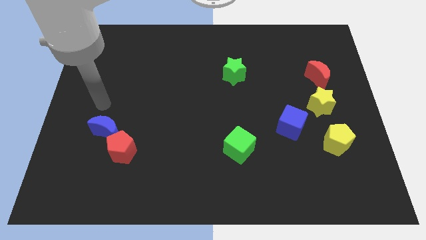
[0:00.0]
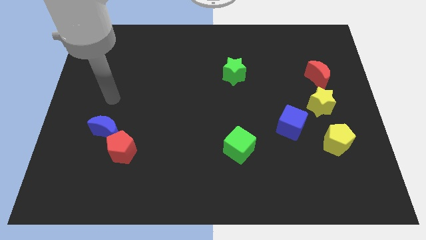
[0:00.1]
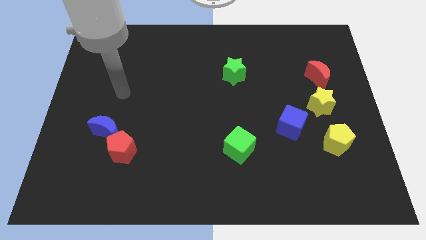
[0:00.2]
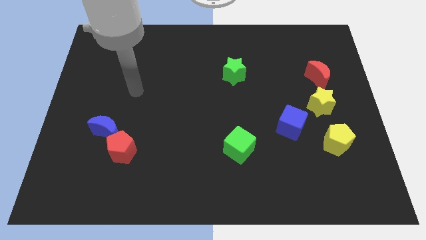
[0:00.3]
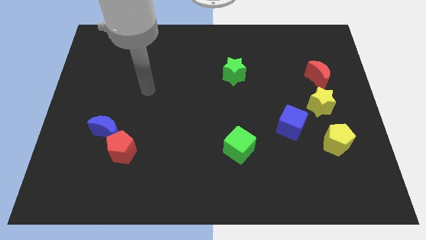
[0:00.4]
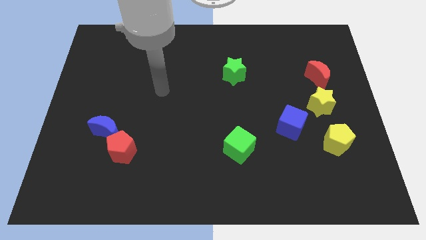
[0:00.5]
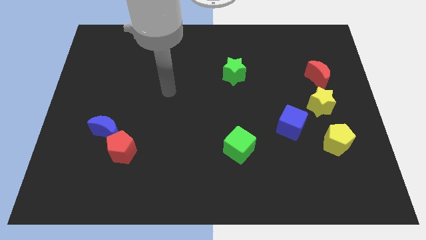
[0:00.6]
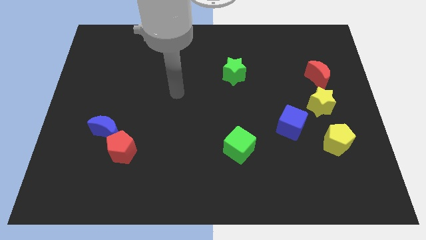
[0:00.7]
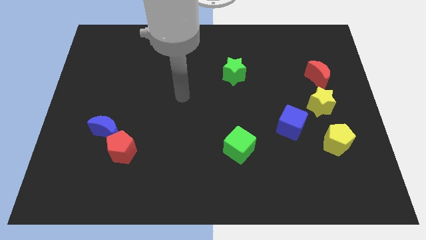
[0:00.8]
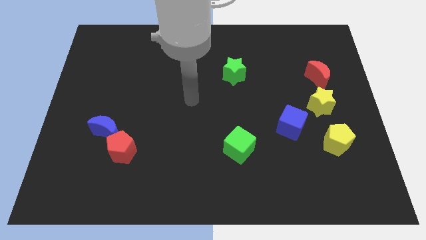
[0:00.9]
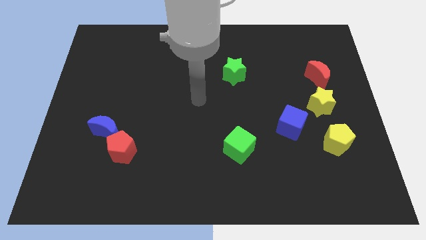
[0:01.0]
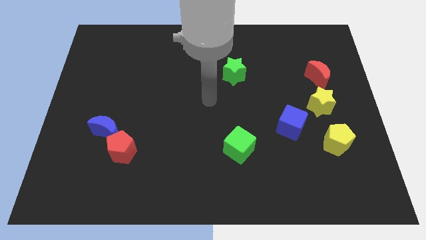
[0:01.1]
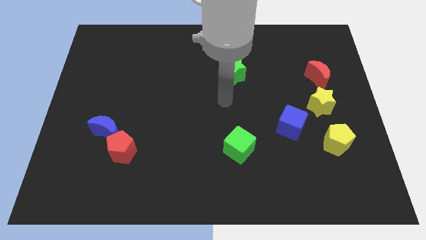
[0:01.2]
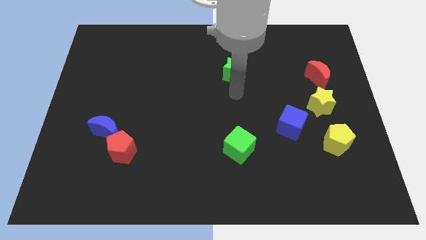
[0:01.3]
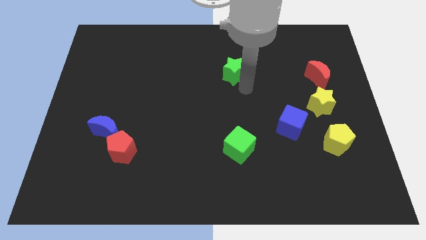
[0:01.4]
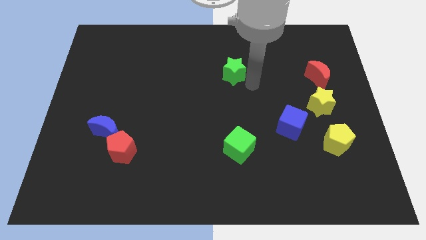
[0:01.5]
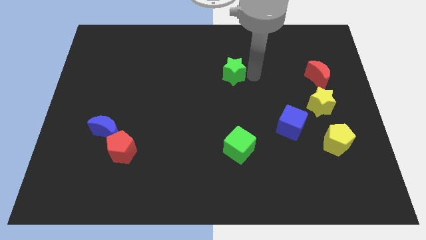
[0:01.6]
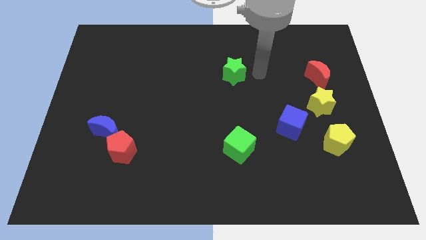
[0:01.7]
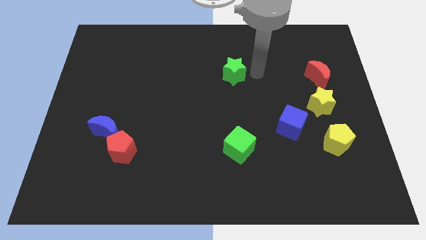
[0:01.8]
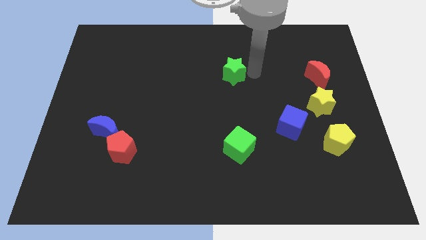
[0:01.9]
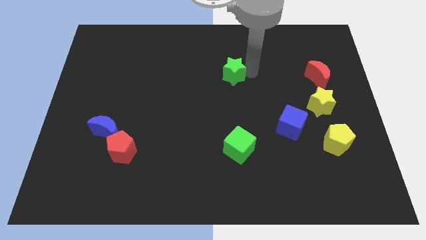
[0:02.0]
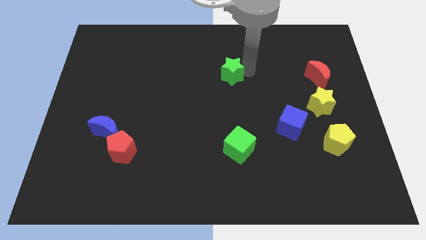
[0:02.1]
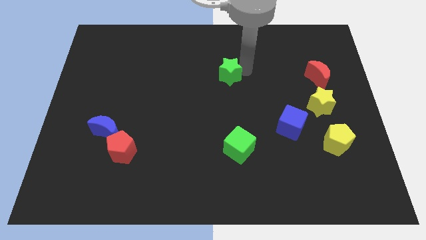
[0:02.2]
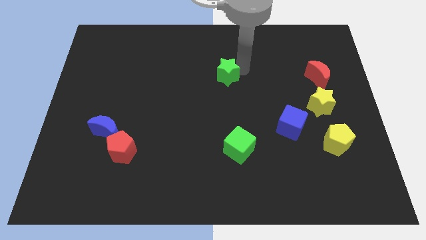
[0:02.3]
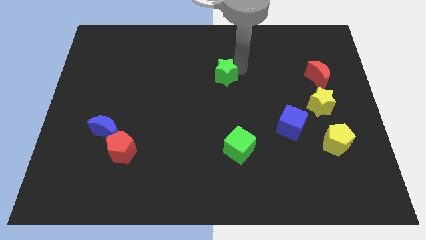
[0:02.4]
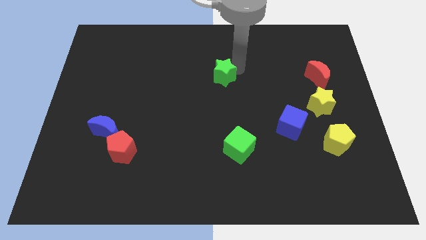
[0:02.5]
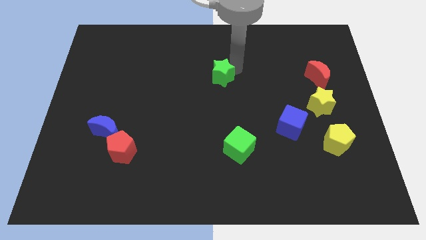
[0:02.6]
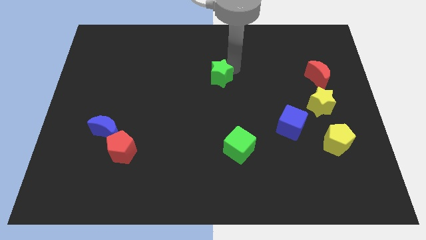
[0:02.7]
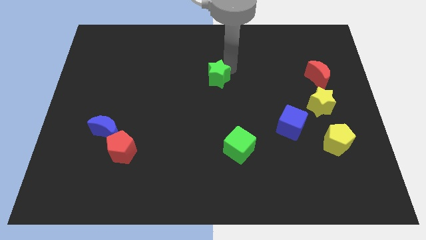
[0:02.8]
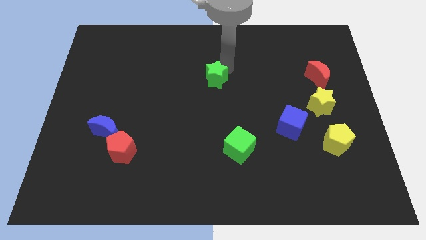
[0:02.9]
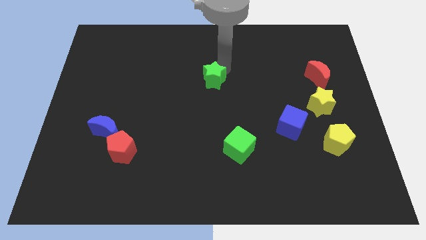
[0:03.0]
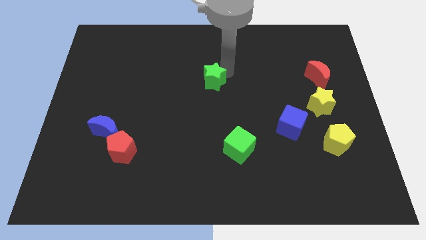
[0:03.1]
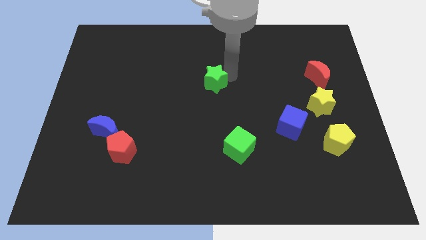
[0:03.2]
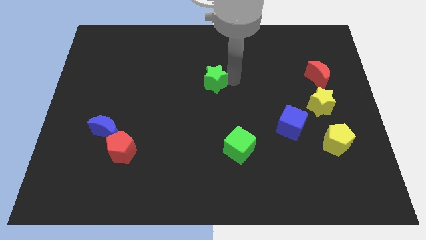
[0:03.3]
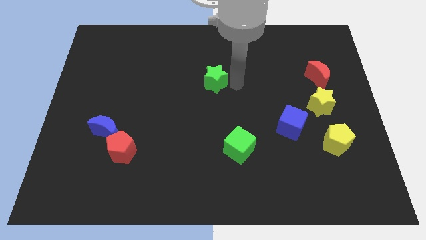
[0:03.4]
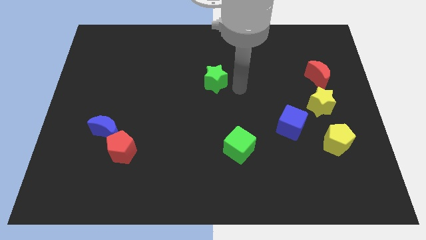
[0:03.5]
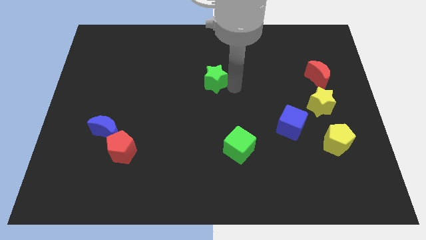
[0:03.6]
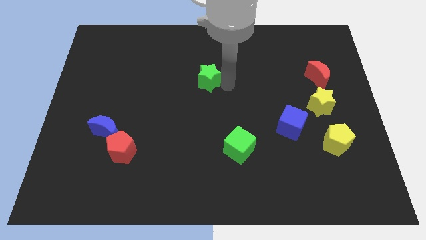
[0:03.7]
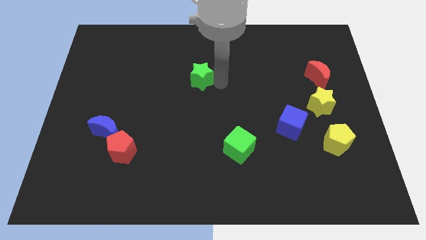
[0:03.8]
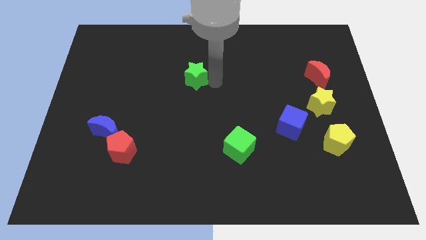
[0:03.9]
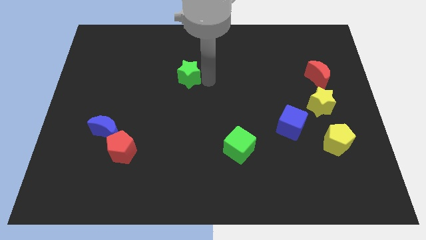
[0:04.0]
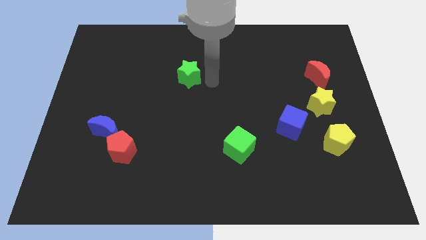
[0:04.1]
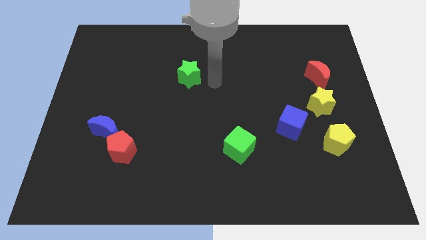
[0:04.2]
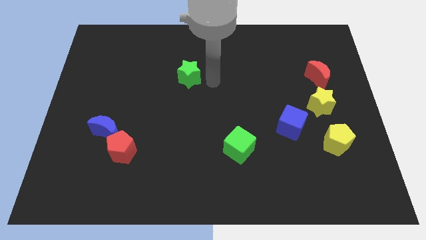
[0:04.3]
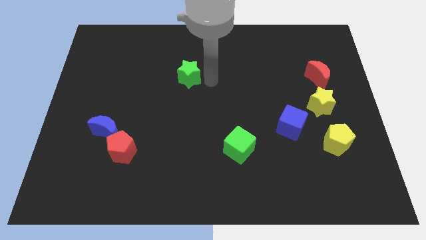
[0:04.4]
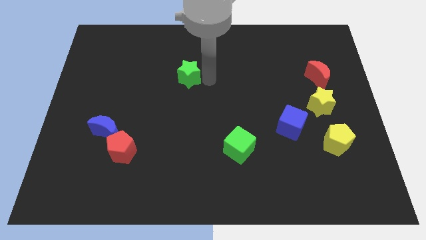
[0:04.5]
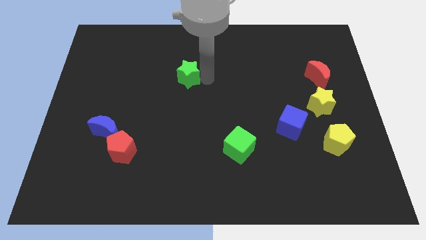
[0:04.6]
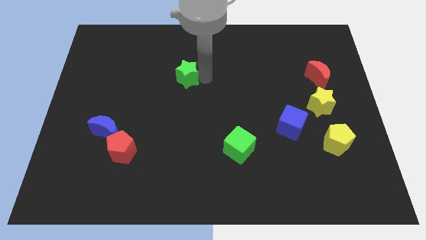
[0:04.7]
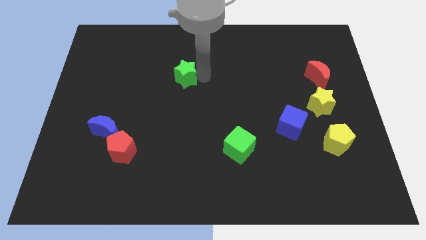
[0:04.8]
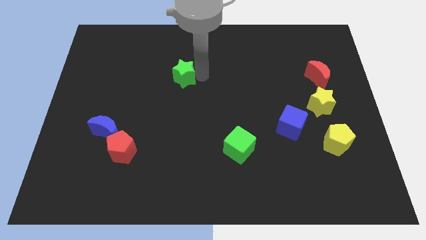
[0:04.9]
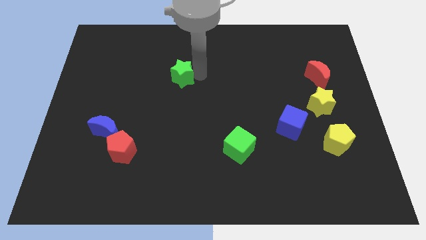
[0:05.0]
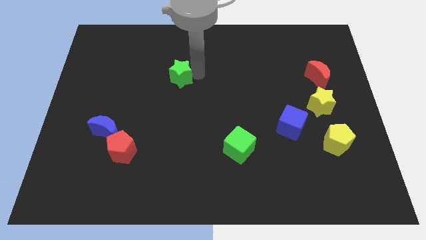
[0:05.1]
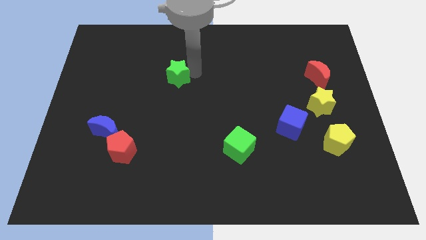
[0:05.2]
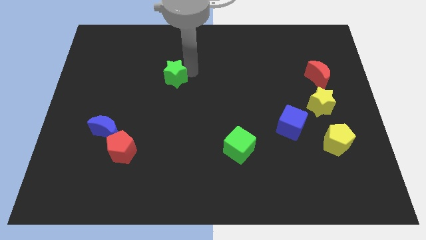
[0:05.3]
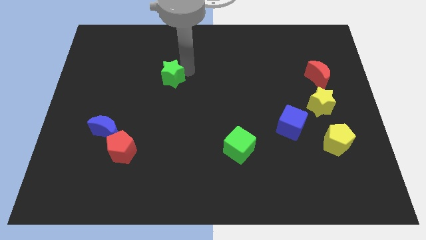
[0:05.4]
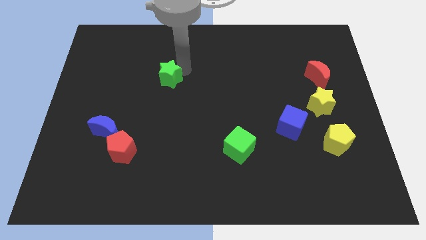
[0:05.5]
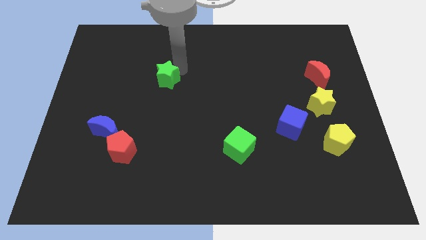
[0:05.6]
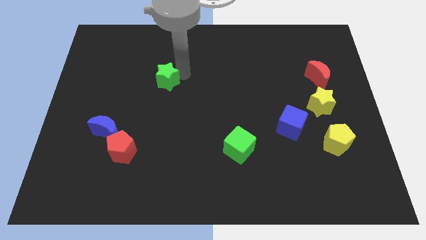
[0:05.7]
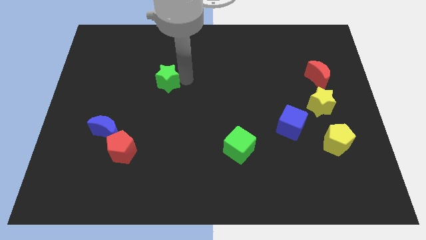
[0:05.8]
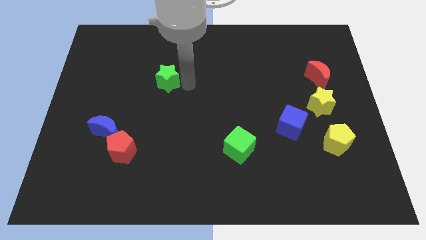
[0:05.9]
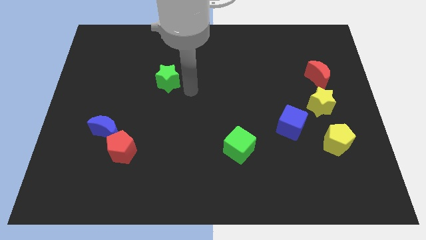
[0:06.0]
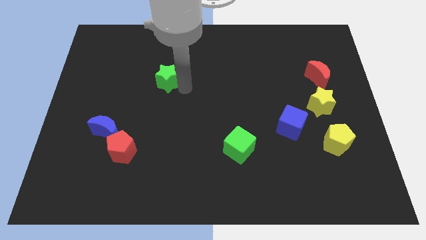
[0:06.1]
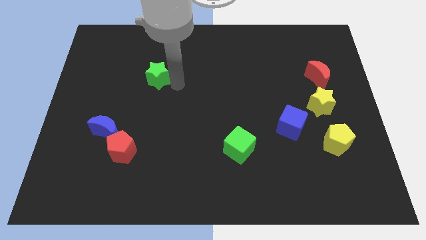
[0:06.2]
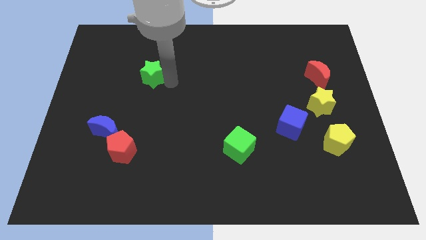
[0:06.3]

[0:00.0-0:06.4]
push the green star to the left

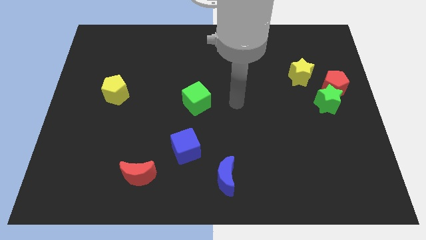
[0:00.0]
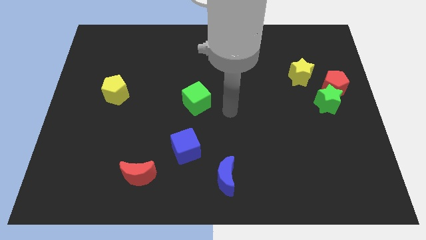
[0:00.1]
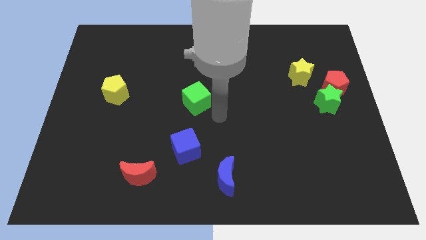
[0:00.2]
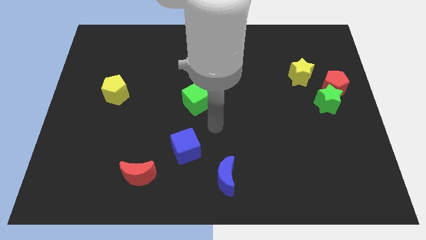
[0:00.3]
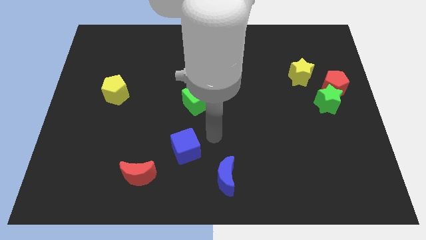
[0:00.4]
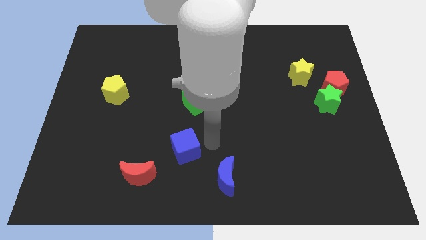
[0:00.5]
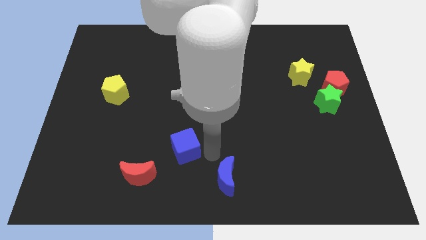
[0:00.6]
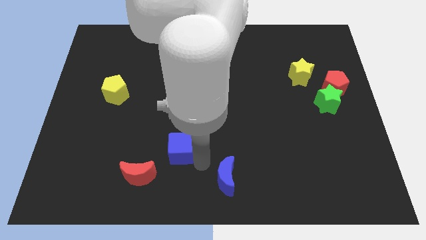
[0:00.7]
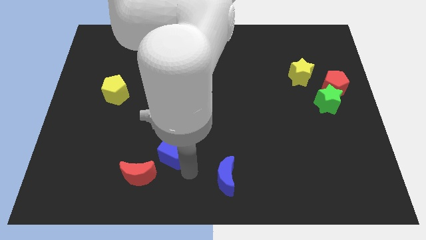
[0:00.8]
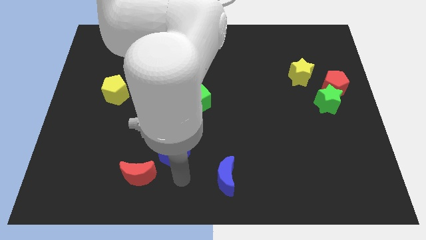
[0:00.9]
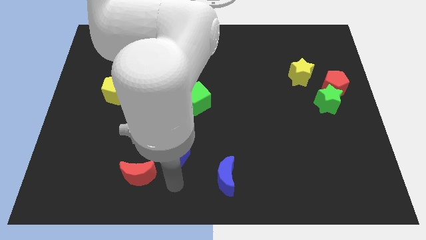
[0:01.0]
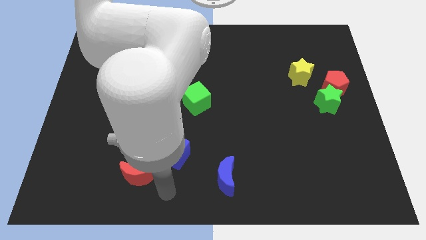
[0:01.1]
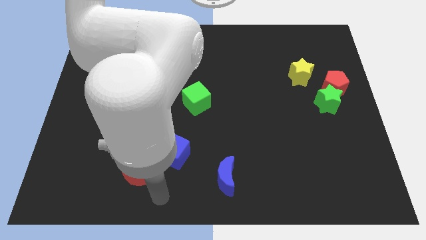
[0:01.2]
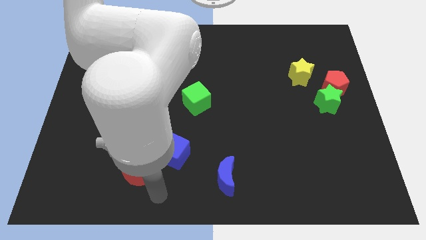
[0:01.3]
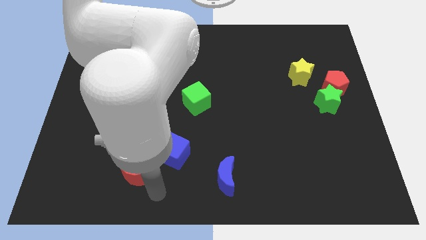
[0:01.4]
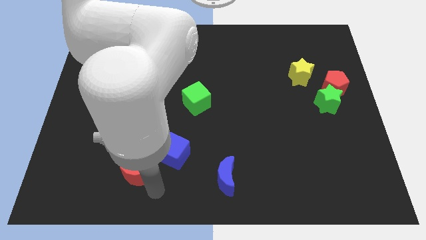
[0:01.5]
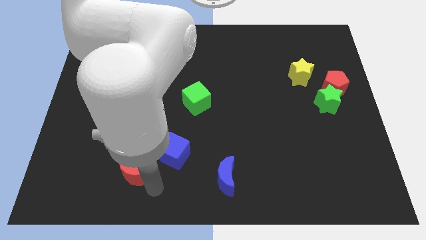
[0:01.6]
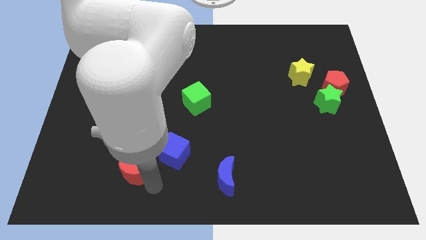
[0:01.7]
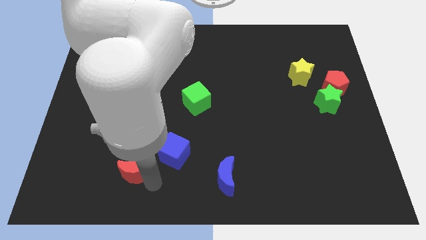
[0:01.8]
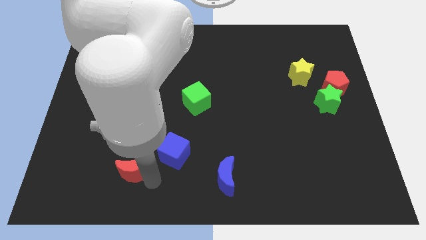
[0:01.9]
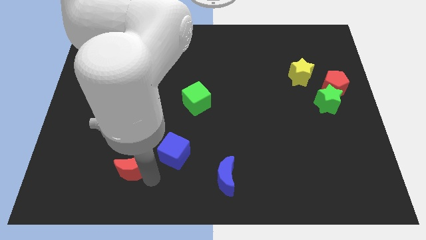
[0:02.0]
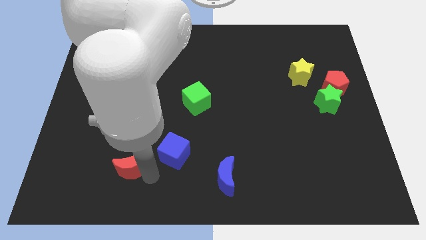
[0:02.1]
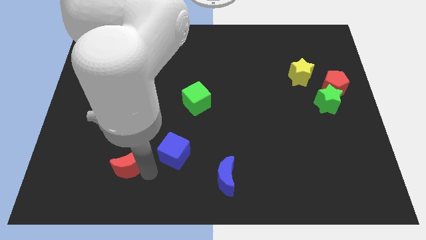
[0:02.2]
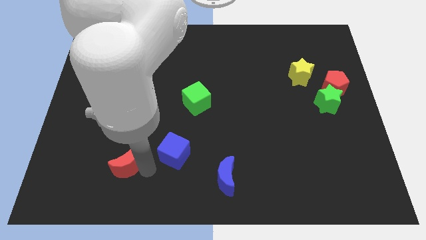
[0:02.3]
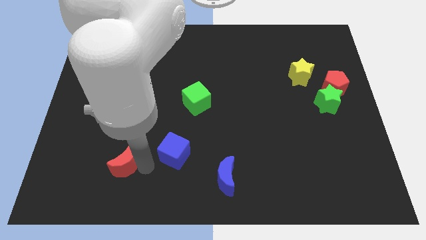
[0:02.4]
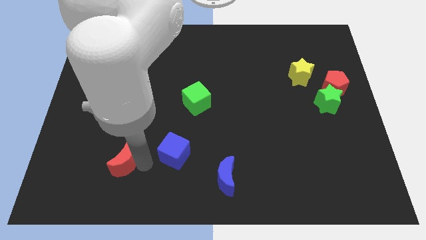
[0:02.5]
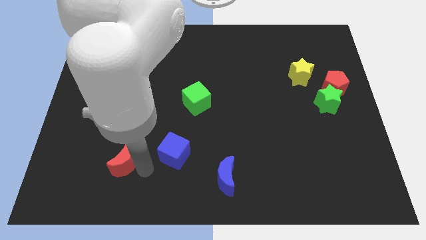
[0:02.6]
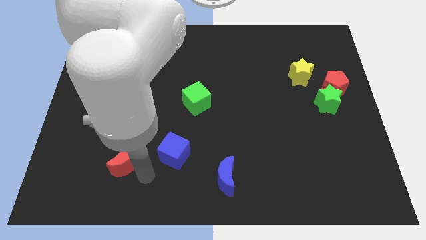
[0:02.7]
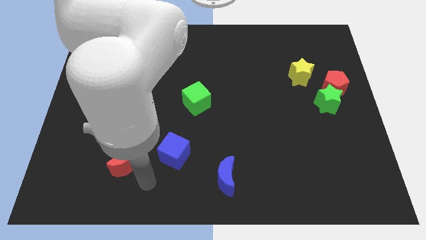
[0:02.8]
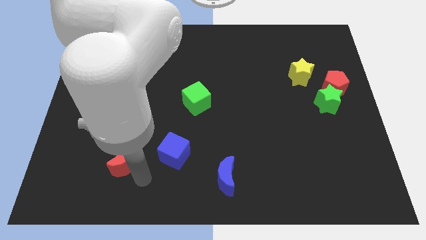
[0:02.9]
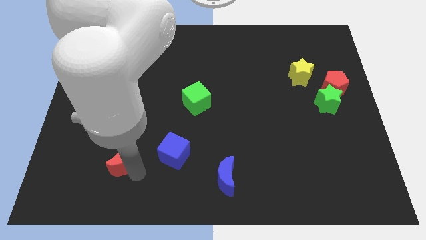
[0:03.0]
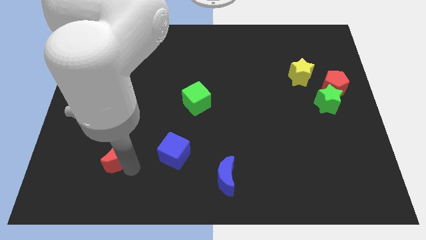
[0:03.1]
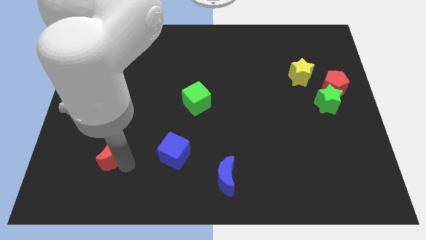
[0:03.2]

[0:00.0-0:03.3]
slightly push the red moon up and to the left
